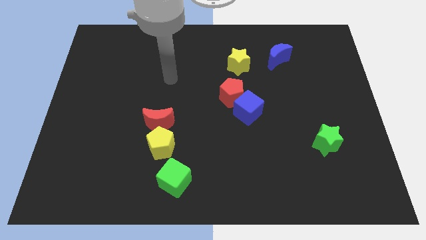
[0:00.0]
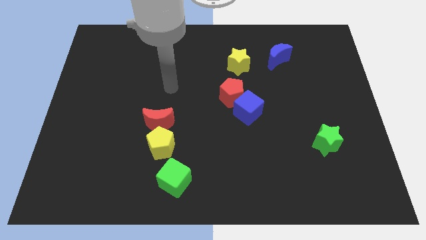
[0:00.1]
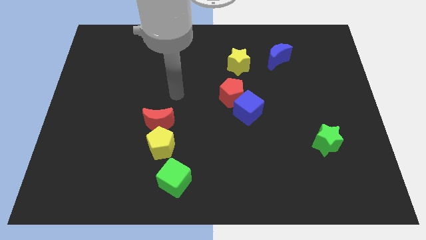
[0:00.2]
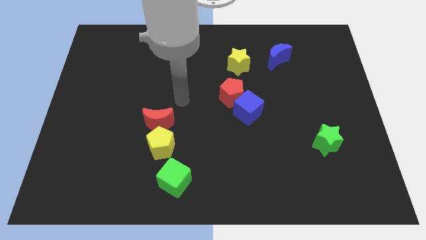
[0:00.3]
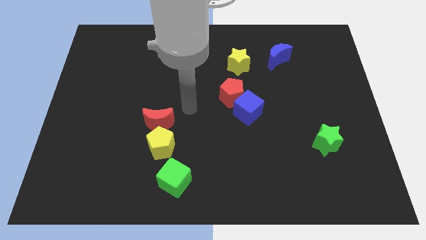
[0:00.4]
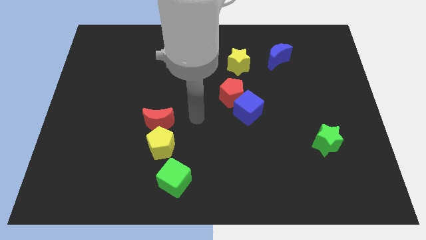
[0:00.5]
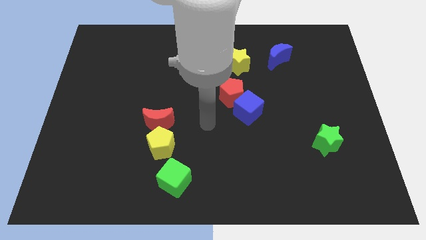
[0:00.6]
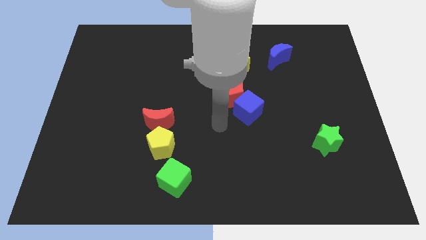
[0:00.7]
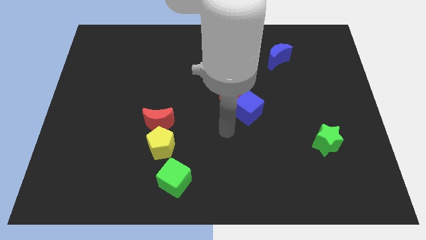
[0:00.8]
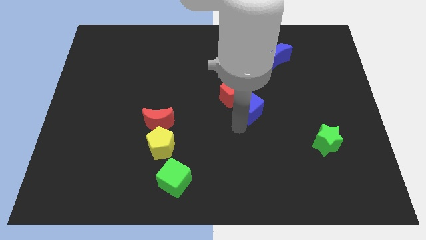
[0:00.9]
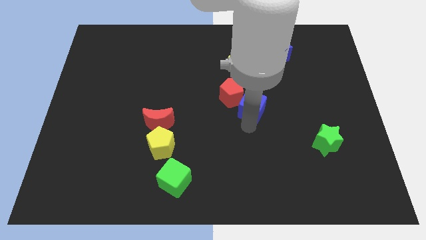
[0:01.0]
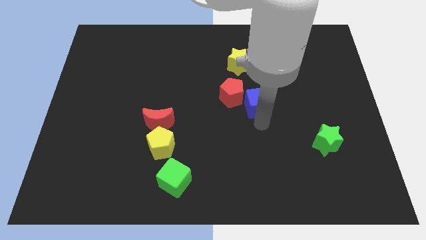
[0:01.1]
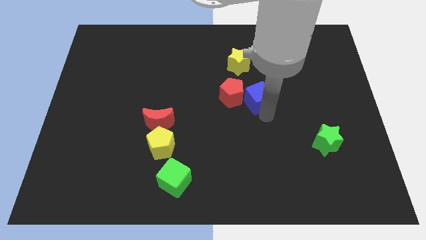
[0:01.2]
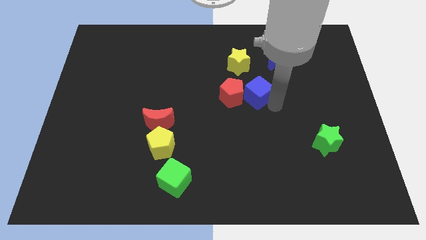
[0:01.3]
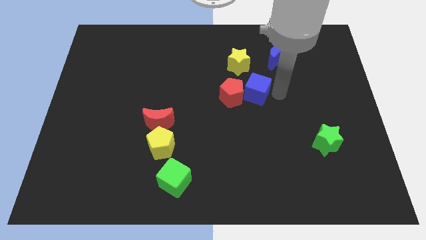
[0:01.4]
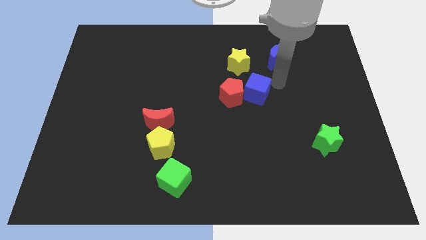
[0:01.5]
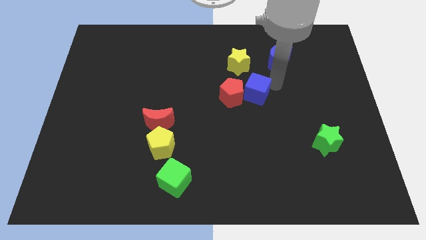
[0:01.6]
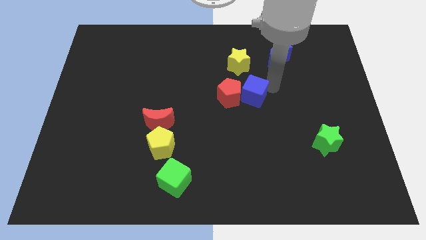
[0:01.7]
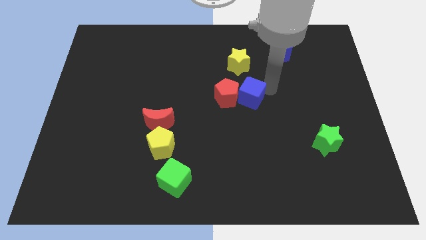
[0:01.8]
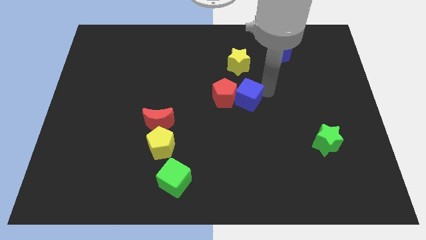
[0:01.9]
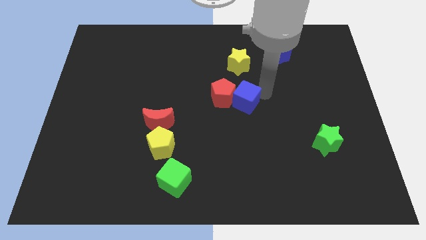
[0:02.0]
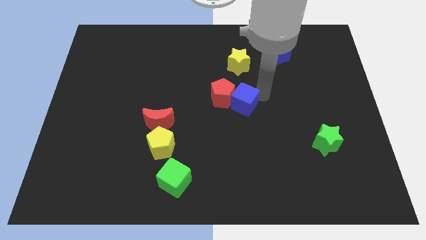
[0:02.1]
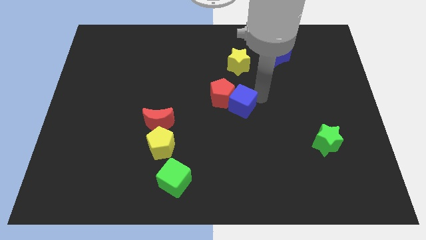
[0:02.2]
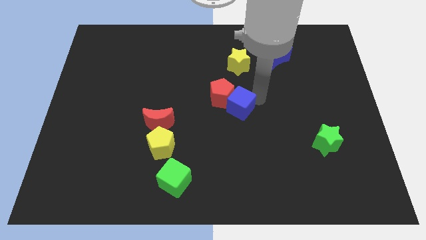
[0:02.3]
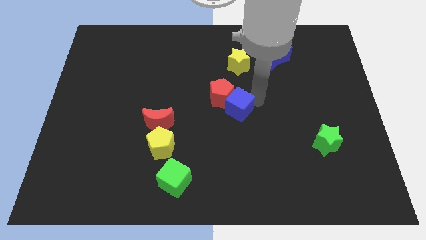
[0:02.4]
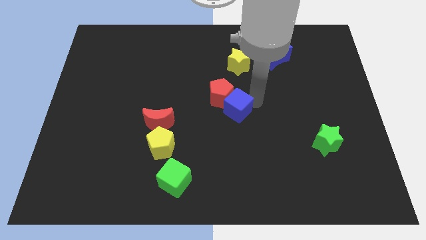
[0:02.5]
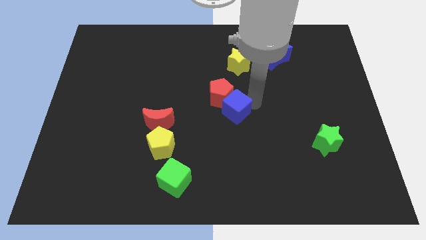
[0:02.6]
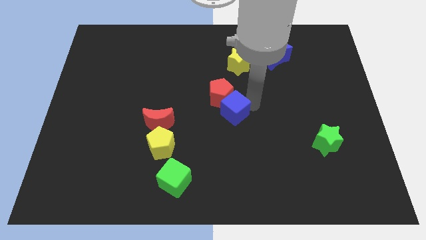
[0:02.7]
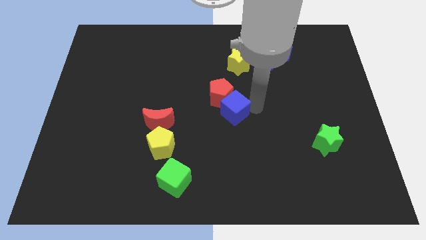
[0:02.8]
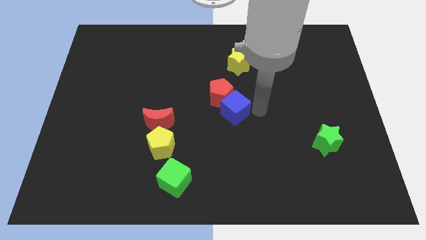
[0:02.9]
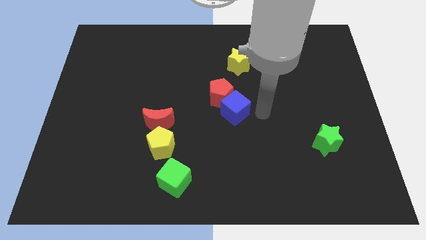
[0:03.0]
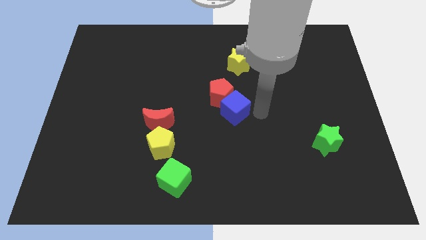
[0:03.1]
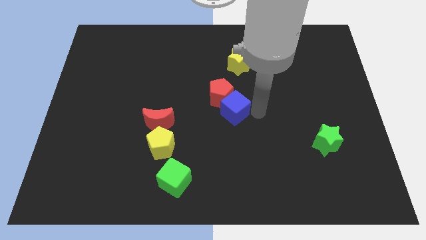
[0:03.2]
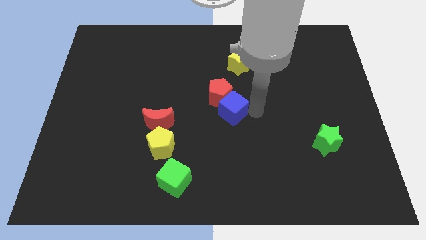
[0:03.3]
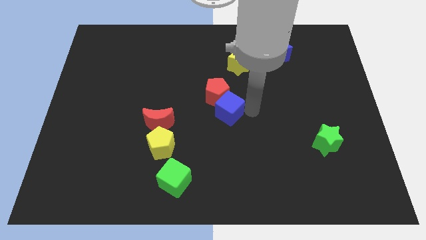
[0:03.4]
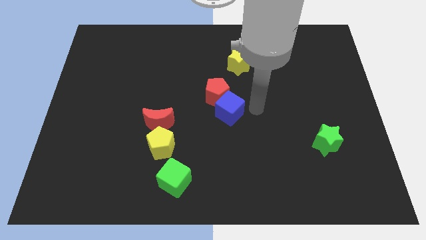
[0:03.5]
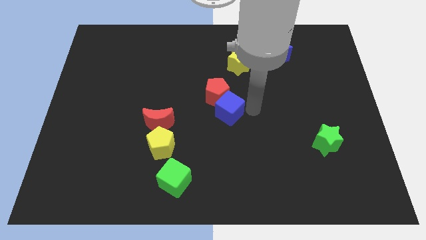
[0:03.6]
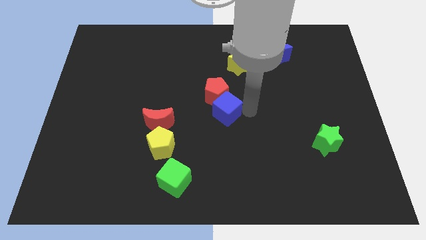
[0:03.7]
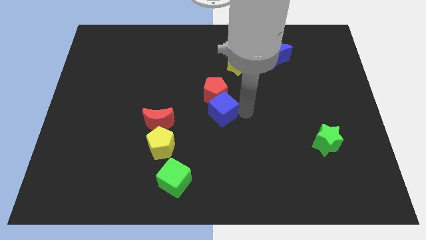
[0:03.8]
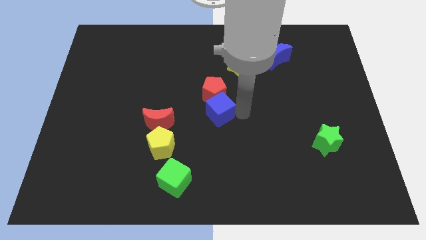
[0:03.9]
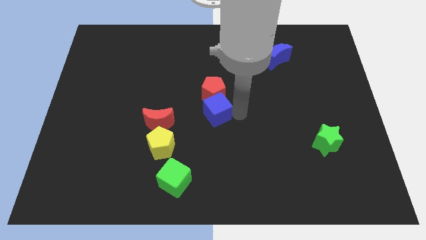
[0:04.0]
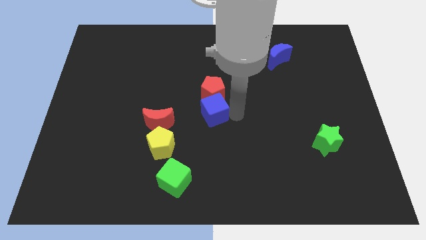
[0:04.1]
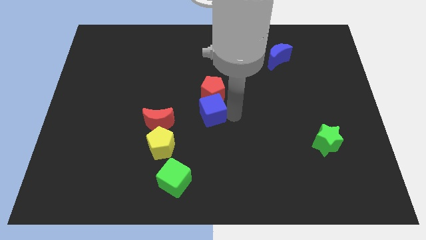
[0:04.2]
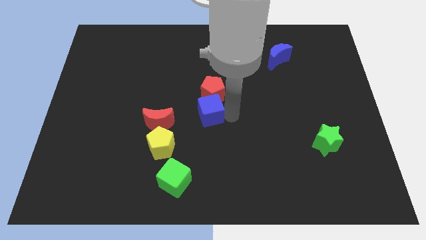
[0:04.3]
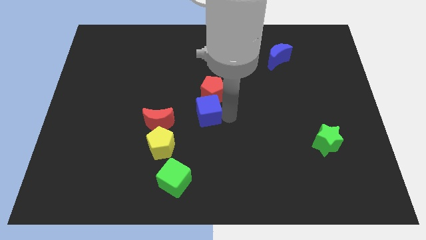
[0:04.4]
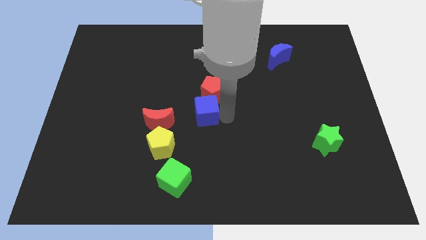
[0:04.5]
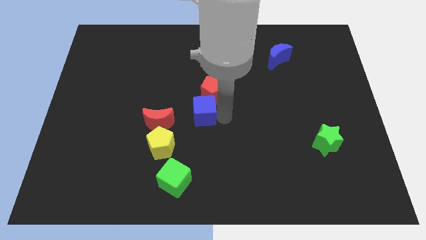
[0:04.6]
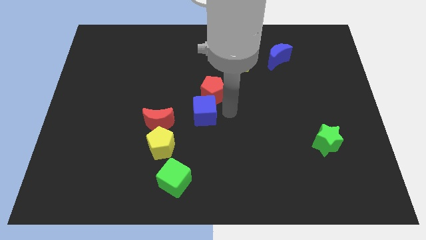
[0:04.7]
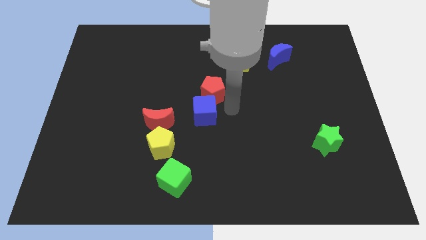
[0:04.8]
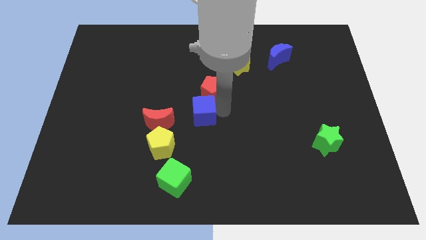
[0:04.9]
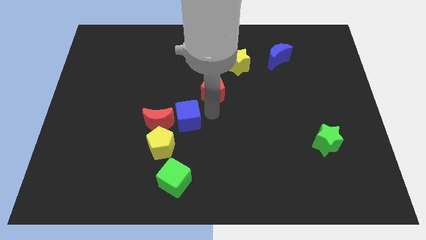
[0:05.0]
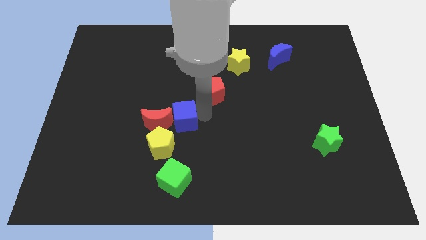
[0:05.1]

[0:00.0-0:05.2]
slide the blue cube close to the red moon

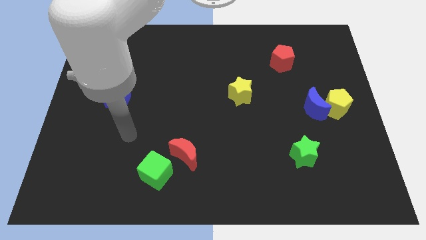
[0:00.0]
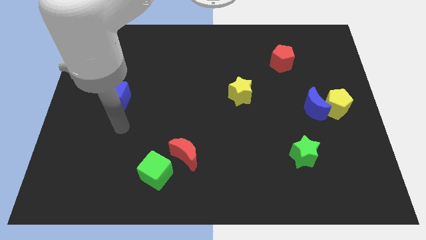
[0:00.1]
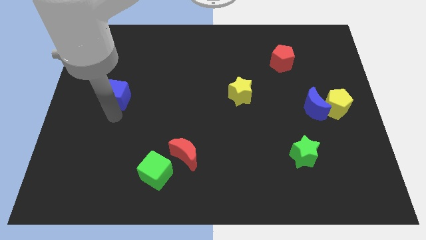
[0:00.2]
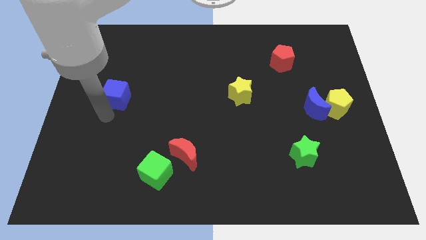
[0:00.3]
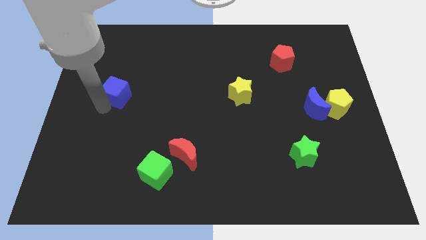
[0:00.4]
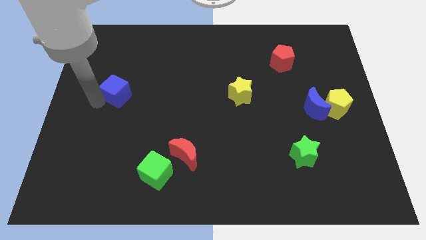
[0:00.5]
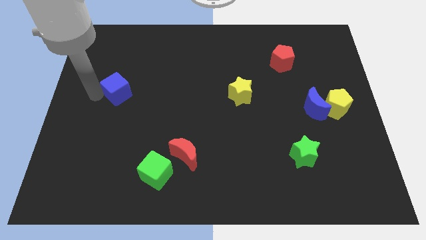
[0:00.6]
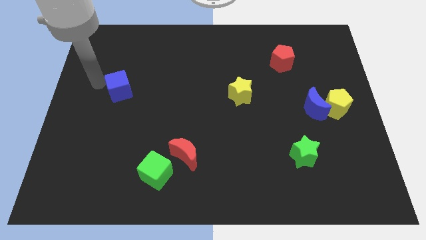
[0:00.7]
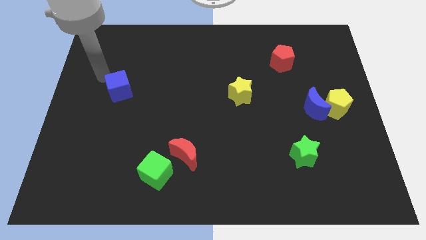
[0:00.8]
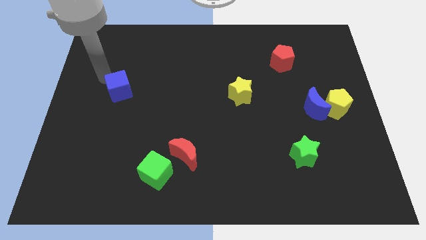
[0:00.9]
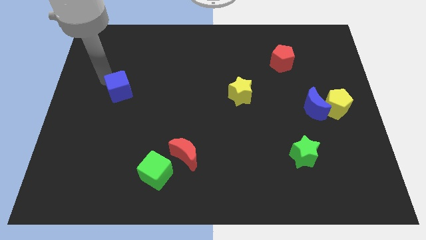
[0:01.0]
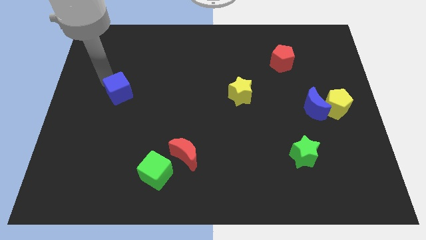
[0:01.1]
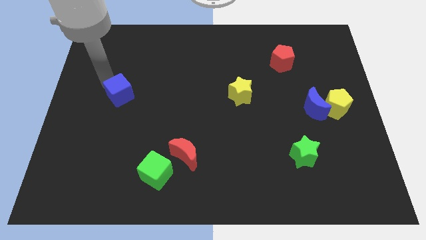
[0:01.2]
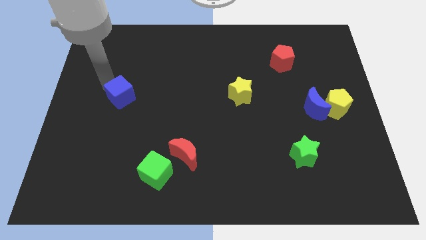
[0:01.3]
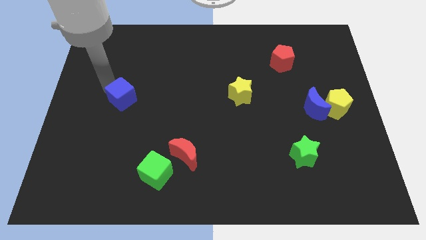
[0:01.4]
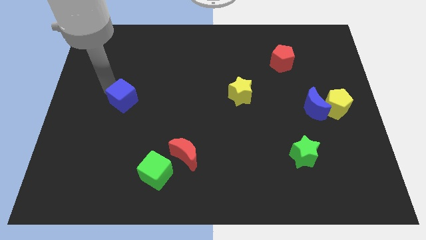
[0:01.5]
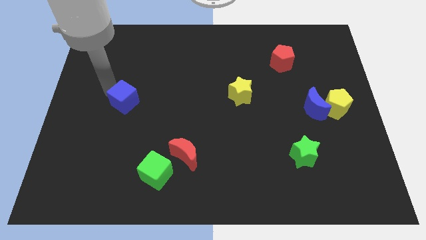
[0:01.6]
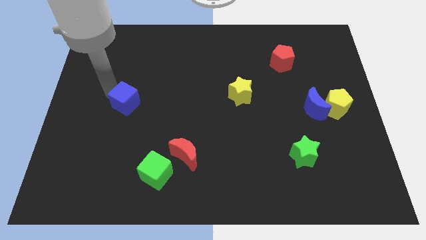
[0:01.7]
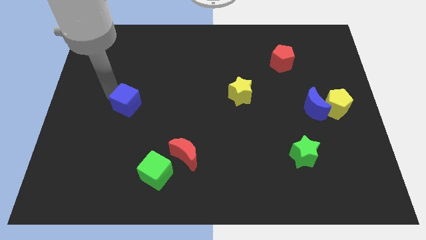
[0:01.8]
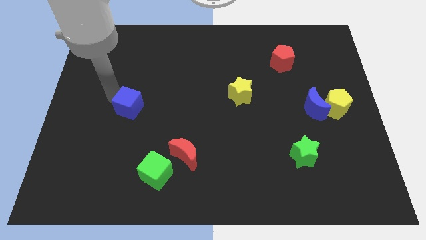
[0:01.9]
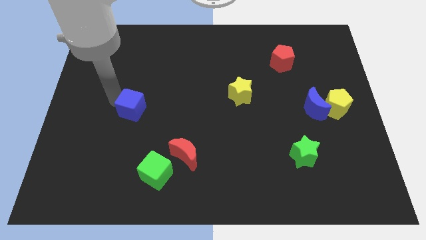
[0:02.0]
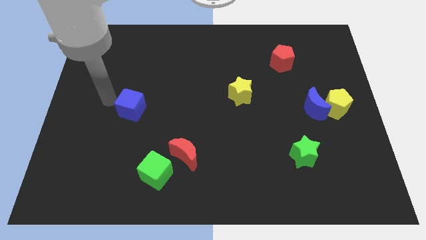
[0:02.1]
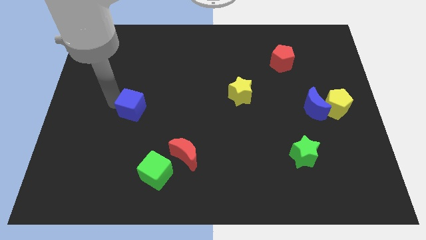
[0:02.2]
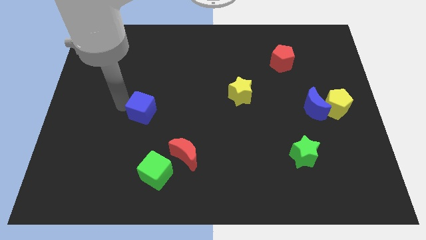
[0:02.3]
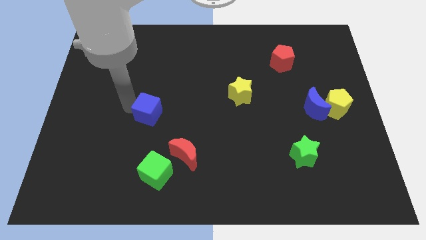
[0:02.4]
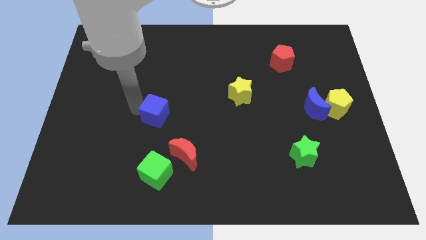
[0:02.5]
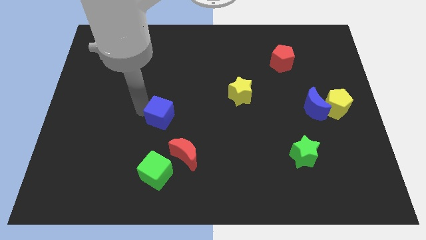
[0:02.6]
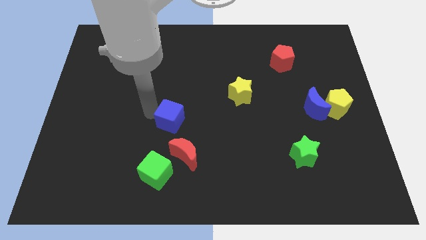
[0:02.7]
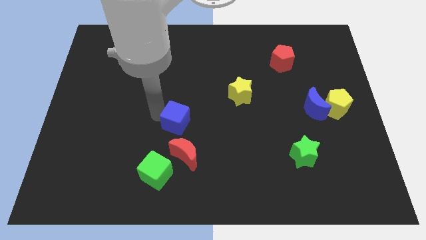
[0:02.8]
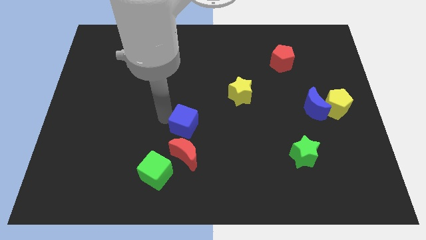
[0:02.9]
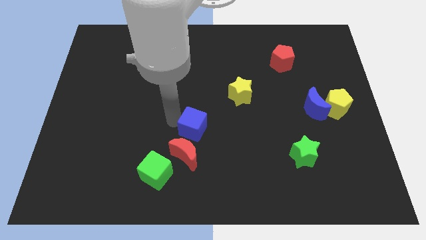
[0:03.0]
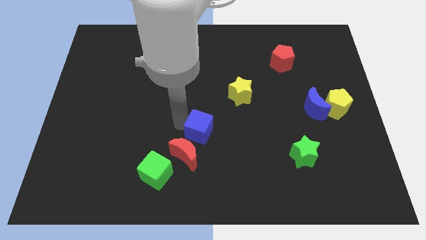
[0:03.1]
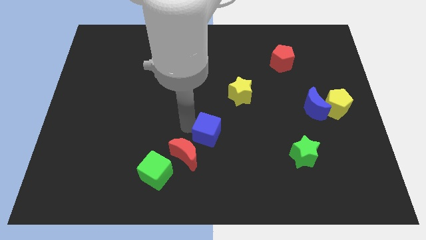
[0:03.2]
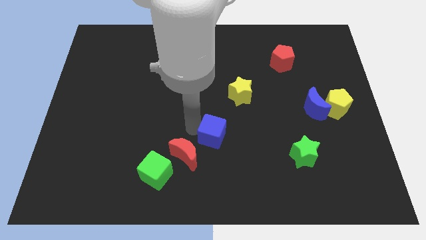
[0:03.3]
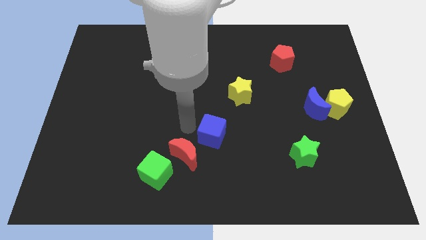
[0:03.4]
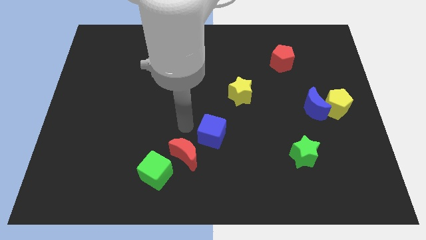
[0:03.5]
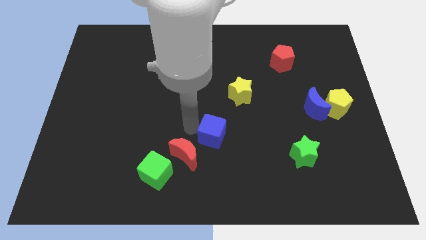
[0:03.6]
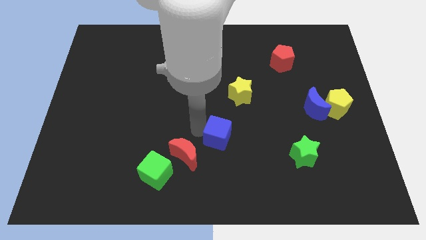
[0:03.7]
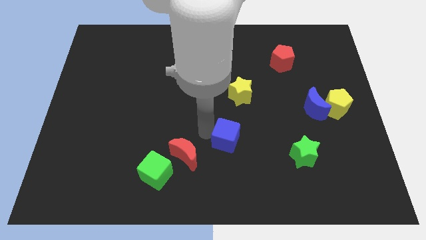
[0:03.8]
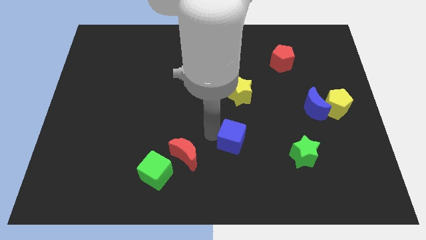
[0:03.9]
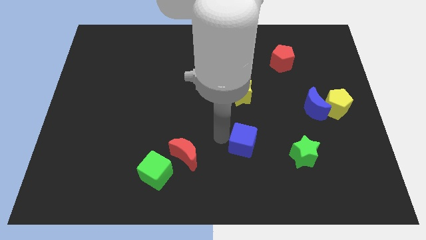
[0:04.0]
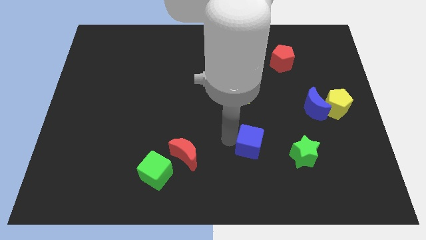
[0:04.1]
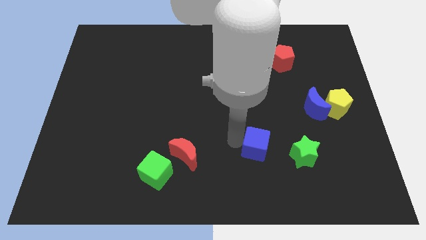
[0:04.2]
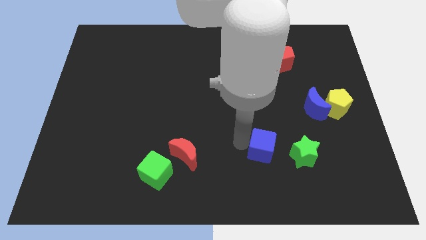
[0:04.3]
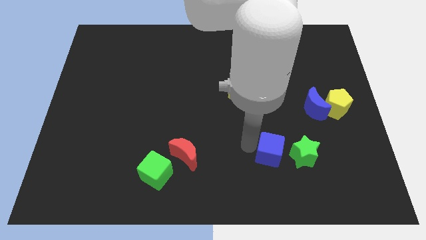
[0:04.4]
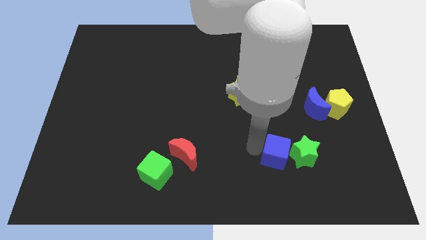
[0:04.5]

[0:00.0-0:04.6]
put the blue cube next to the green star
